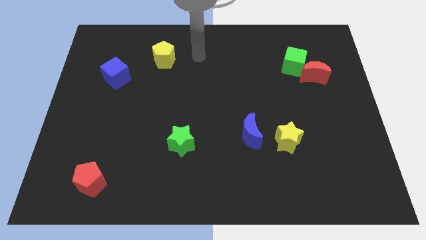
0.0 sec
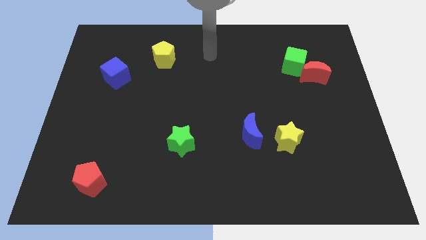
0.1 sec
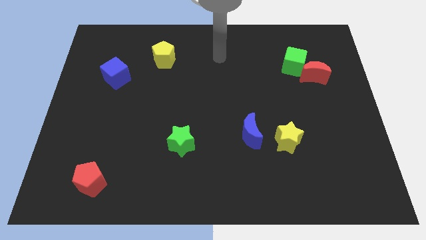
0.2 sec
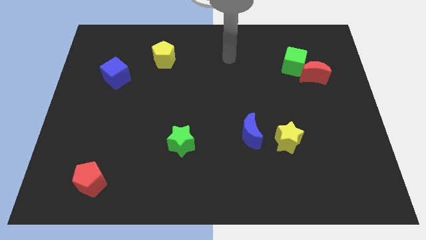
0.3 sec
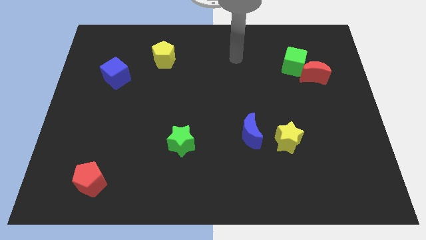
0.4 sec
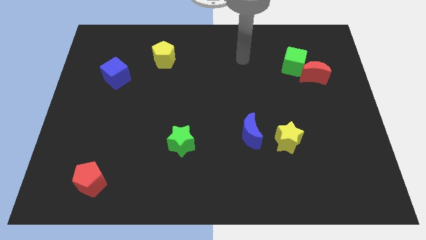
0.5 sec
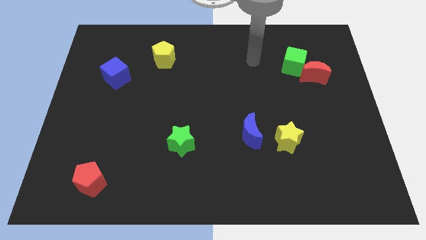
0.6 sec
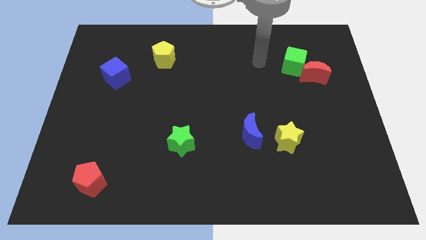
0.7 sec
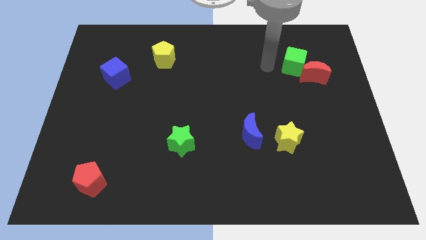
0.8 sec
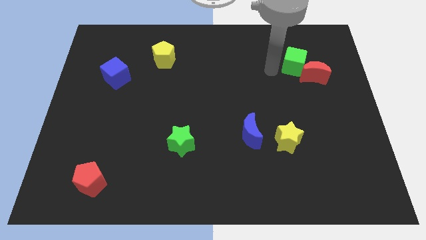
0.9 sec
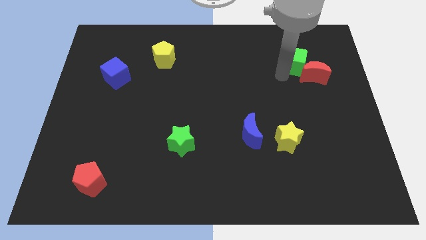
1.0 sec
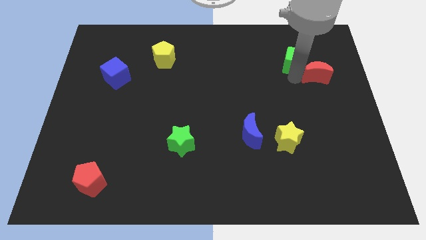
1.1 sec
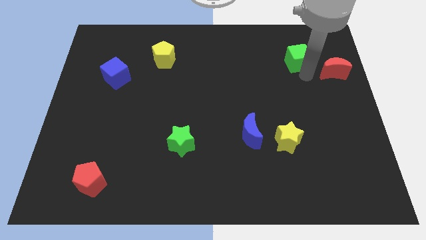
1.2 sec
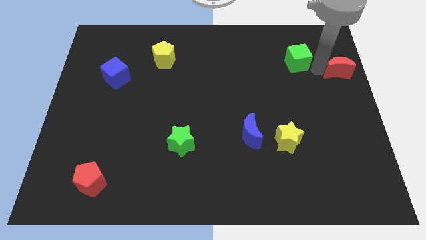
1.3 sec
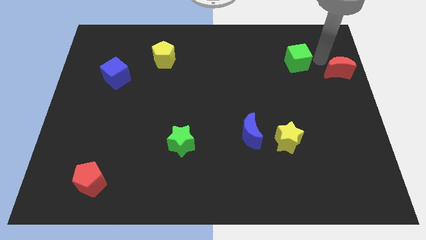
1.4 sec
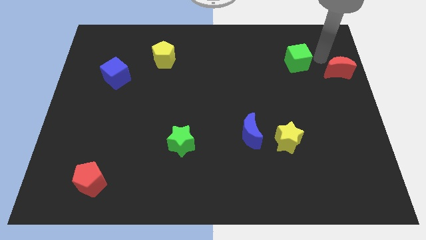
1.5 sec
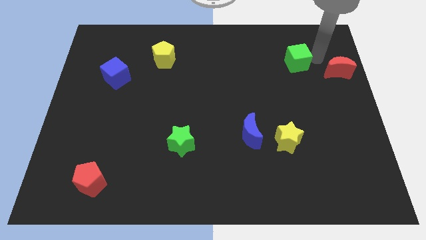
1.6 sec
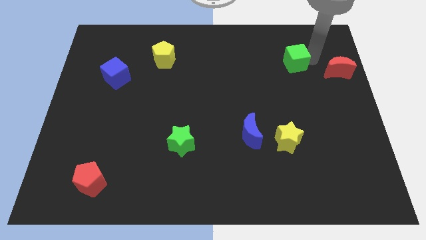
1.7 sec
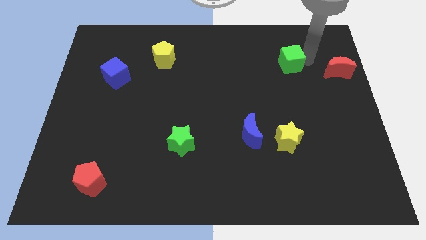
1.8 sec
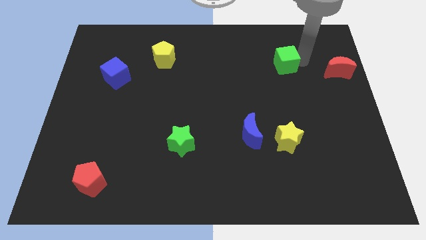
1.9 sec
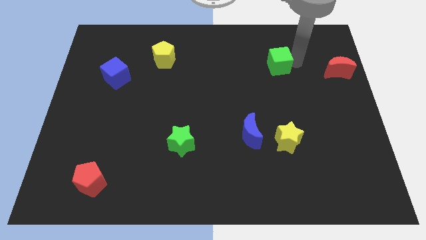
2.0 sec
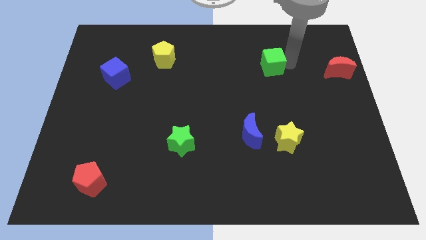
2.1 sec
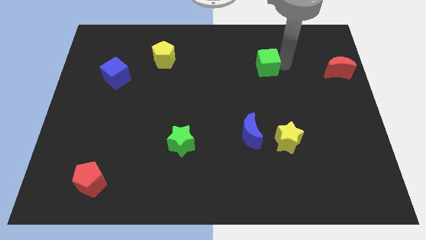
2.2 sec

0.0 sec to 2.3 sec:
slightly push the green cube to the left

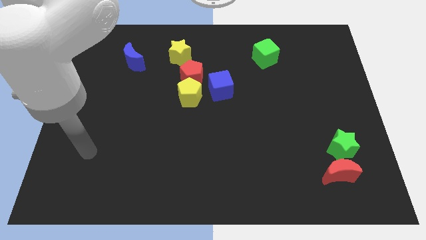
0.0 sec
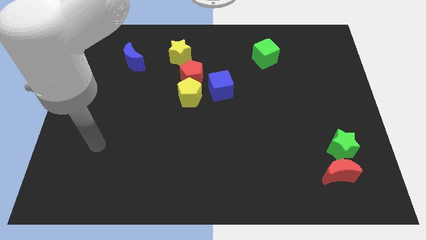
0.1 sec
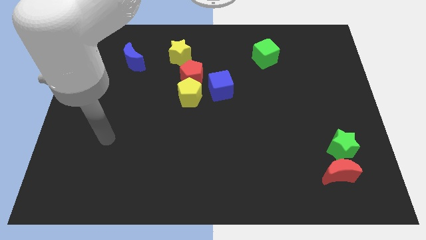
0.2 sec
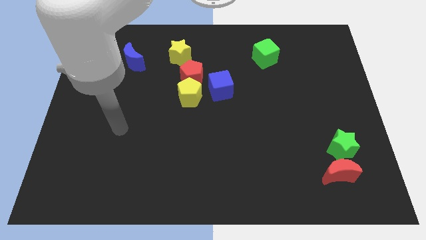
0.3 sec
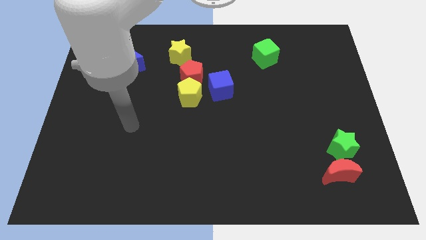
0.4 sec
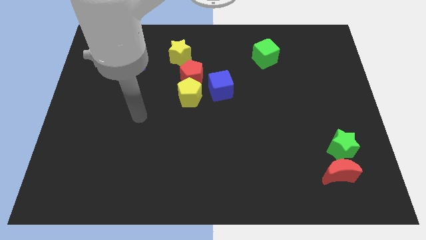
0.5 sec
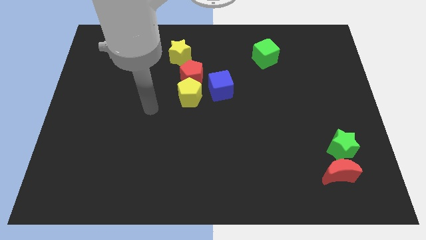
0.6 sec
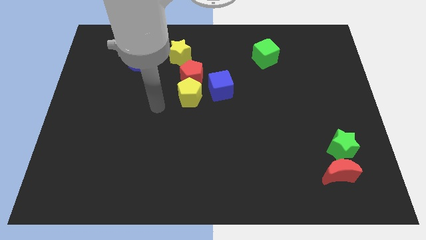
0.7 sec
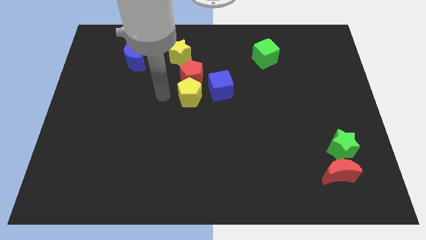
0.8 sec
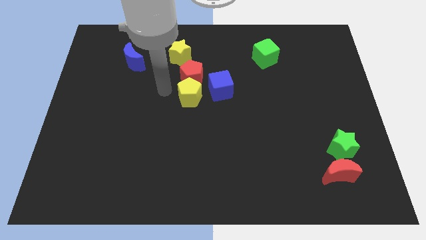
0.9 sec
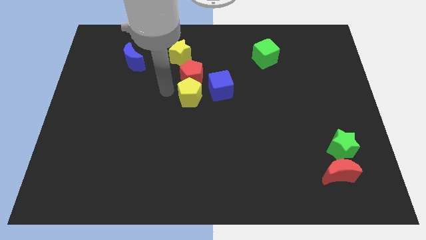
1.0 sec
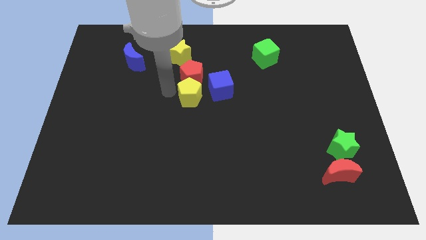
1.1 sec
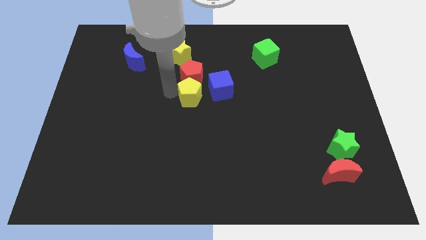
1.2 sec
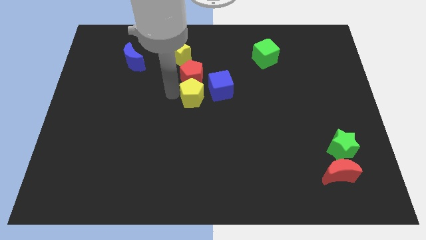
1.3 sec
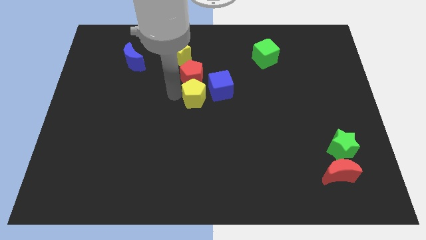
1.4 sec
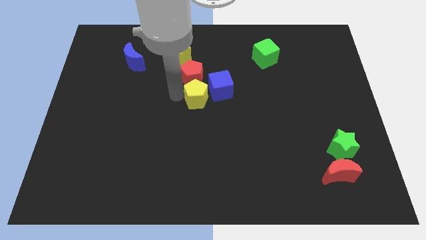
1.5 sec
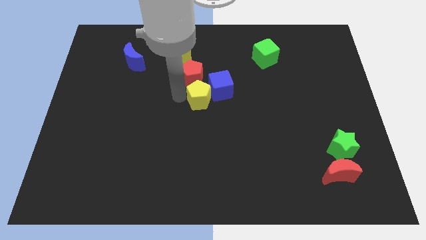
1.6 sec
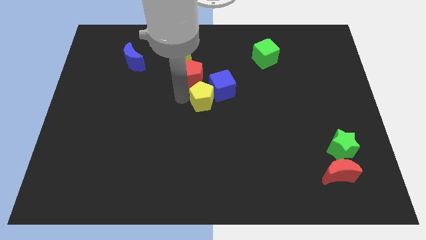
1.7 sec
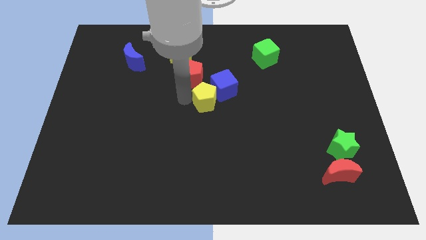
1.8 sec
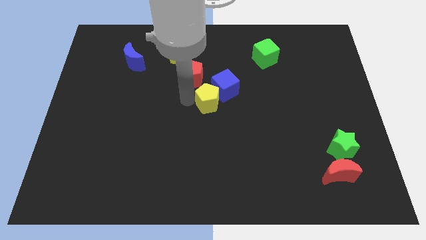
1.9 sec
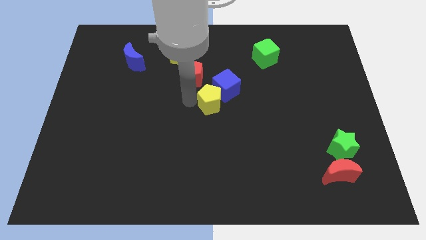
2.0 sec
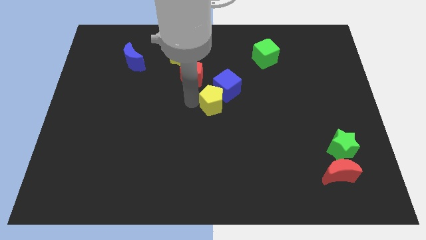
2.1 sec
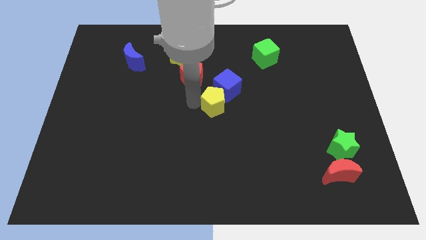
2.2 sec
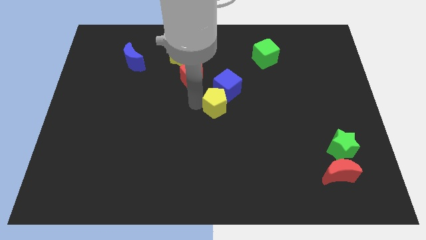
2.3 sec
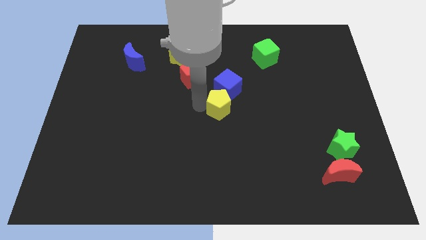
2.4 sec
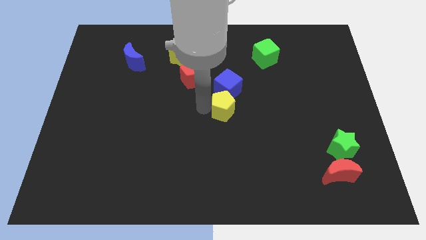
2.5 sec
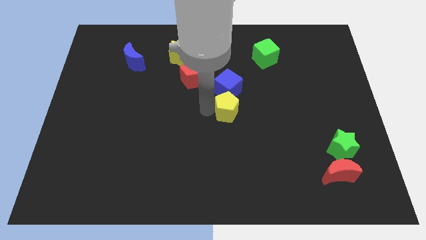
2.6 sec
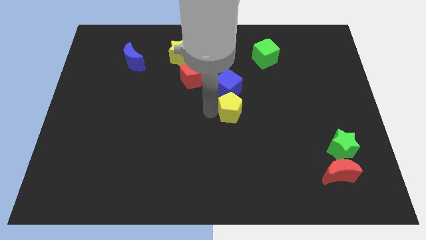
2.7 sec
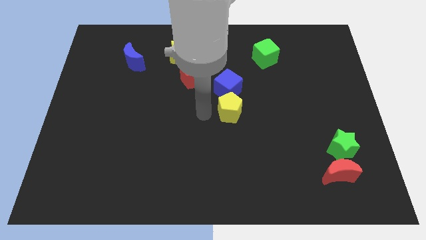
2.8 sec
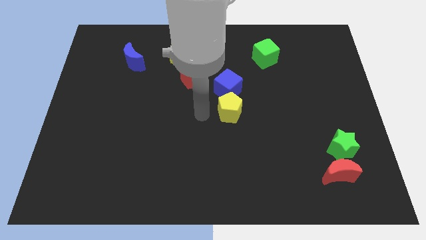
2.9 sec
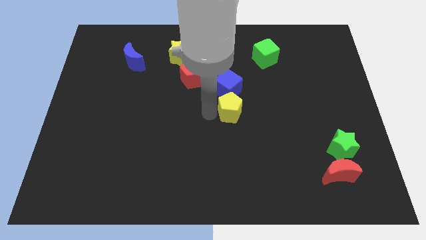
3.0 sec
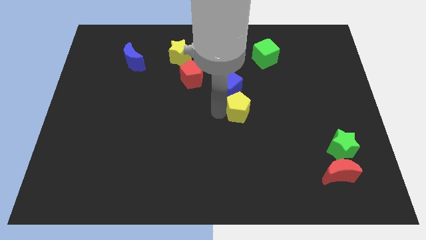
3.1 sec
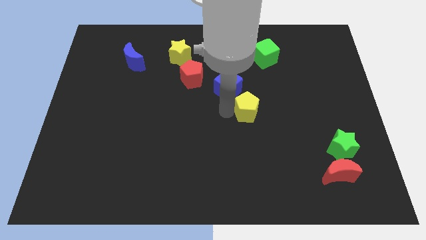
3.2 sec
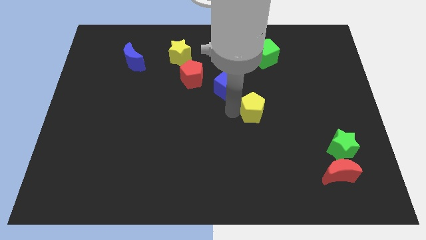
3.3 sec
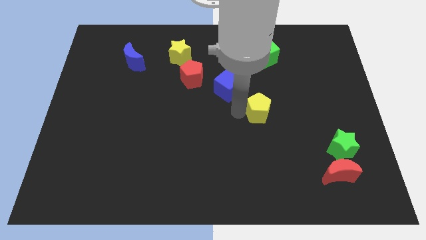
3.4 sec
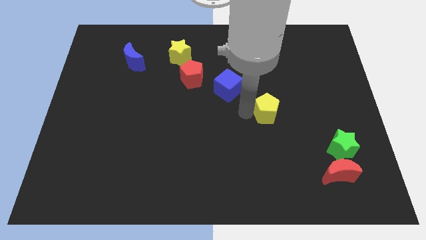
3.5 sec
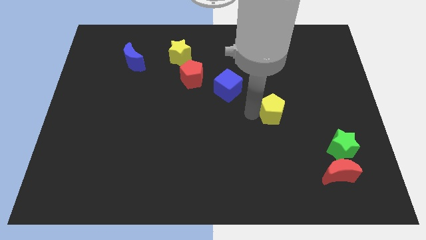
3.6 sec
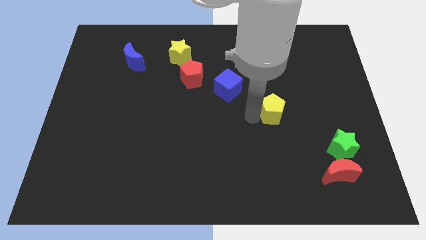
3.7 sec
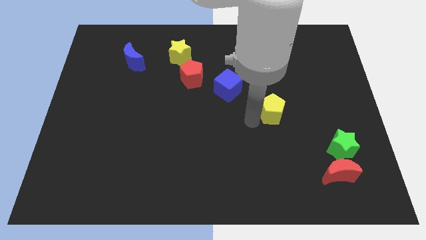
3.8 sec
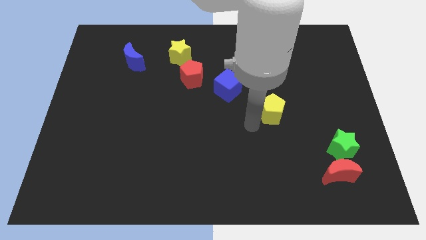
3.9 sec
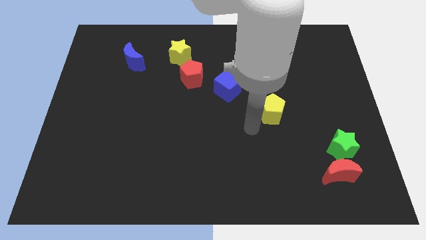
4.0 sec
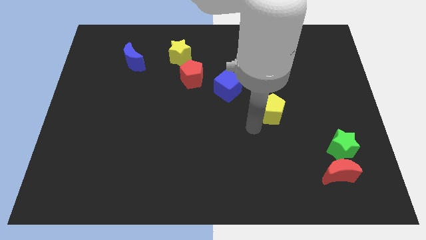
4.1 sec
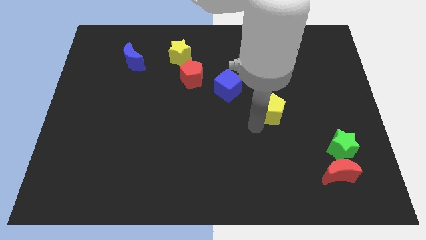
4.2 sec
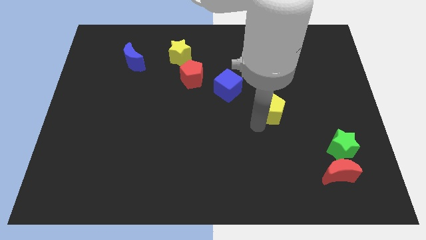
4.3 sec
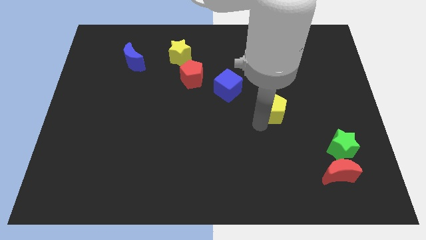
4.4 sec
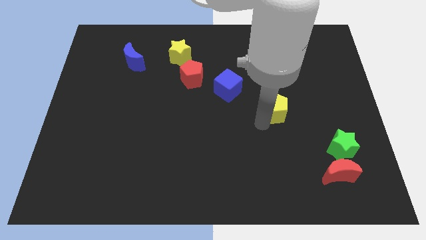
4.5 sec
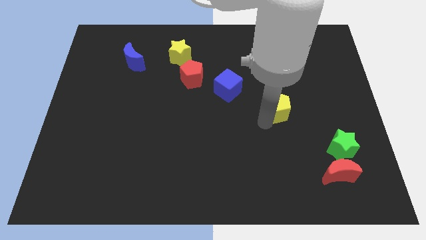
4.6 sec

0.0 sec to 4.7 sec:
push the yellow pentagon right

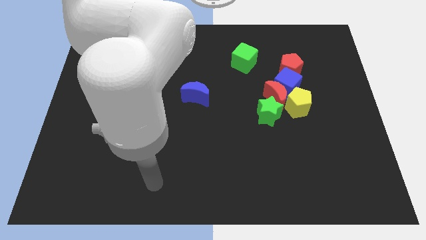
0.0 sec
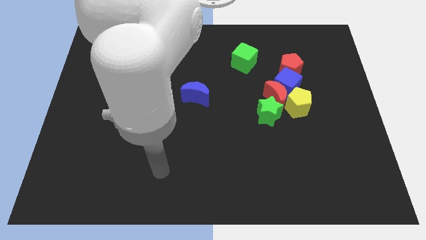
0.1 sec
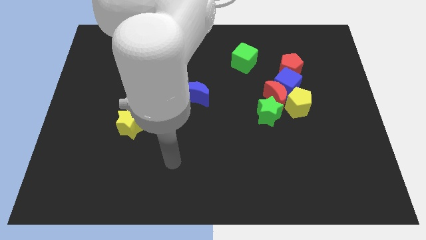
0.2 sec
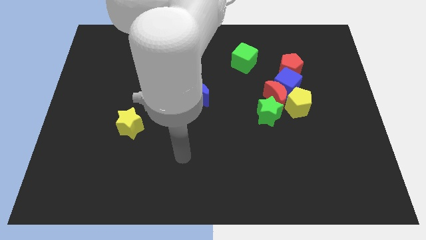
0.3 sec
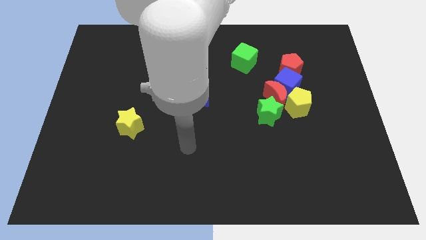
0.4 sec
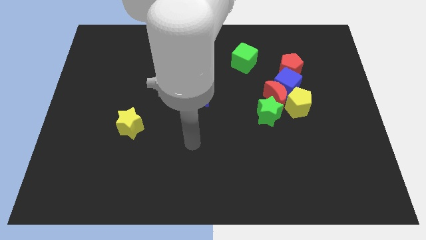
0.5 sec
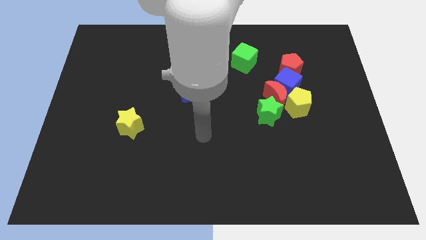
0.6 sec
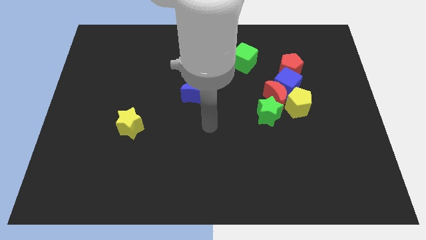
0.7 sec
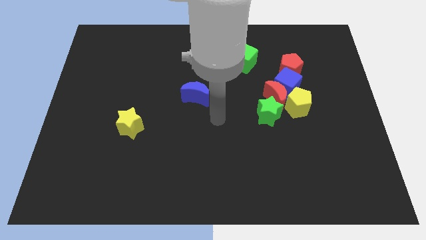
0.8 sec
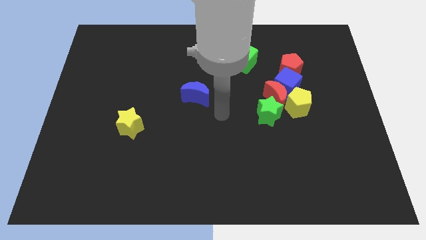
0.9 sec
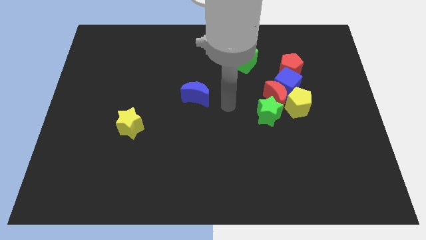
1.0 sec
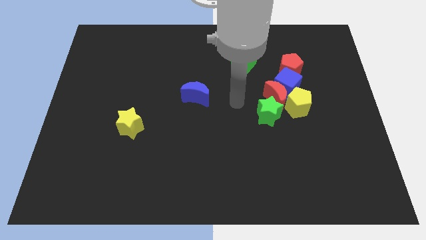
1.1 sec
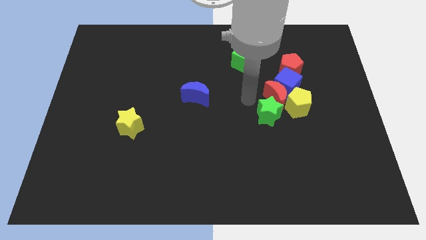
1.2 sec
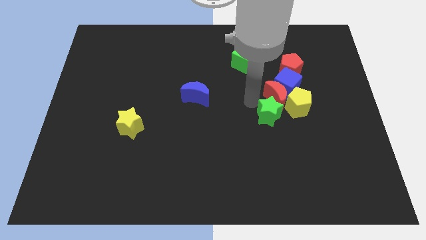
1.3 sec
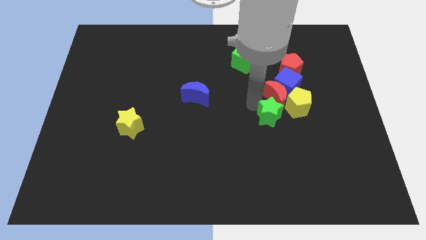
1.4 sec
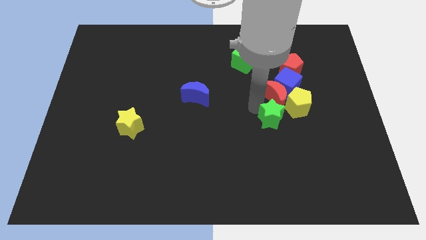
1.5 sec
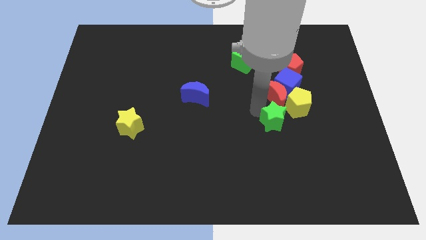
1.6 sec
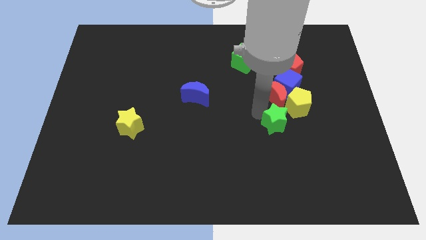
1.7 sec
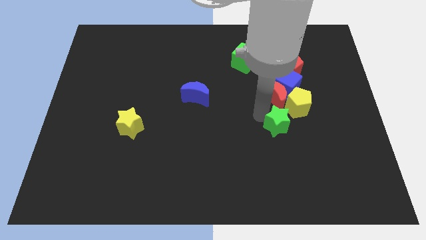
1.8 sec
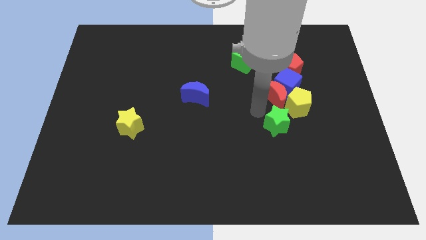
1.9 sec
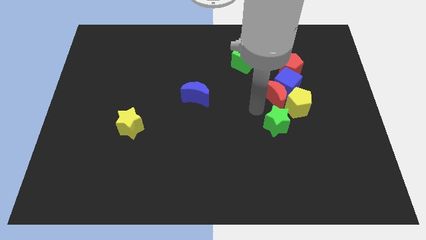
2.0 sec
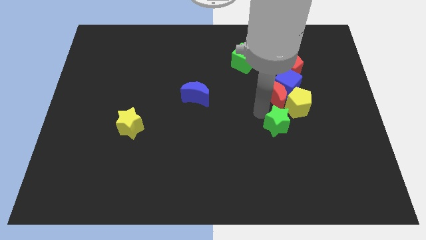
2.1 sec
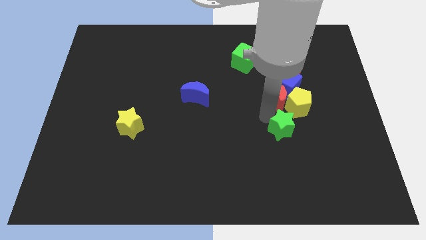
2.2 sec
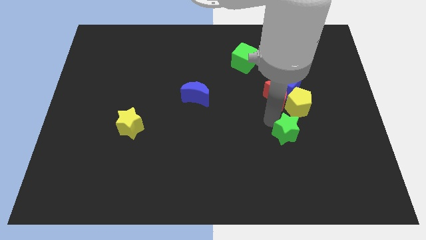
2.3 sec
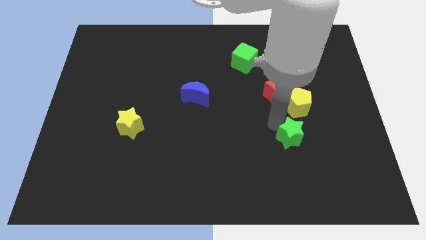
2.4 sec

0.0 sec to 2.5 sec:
slightly push the green star downwards and then to the right
